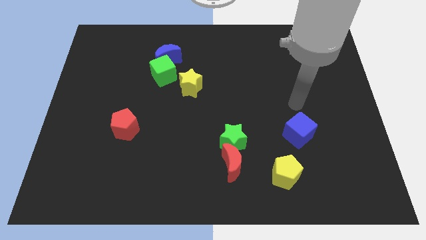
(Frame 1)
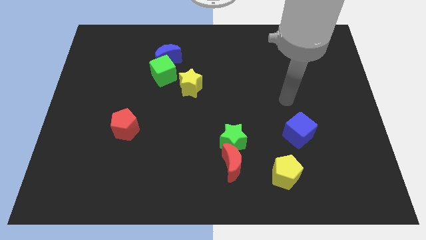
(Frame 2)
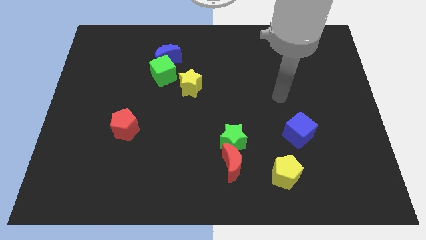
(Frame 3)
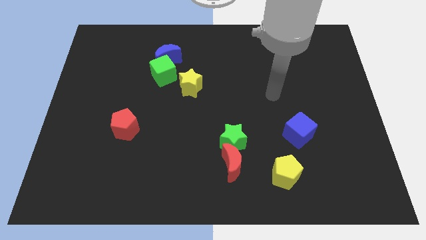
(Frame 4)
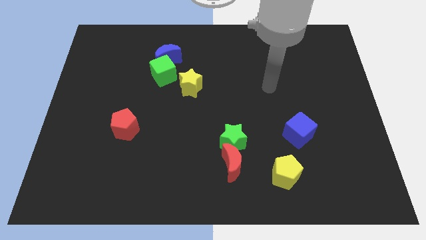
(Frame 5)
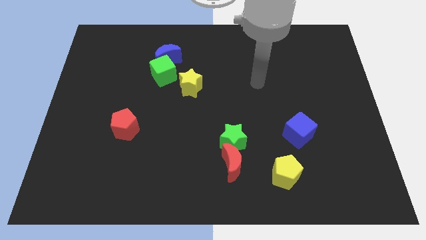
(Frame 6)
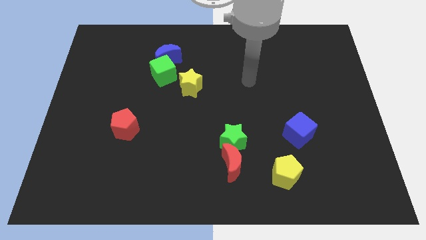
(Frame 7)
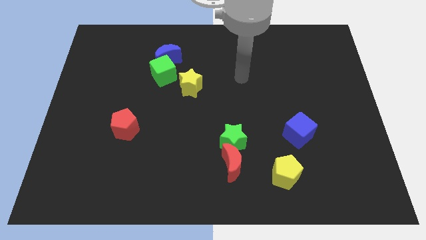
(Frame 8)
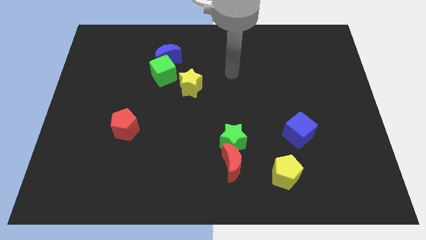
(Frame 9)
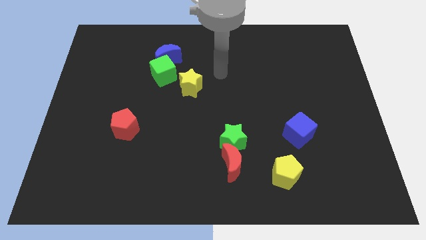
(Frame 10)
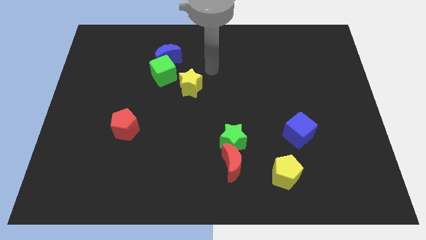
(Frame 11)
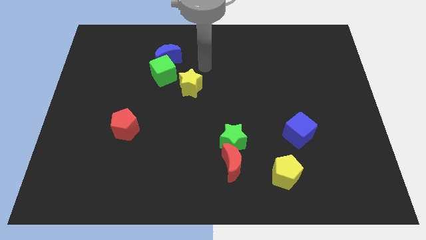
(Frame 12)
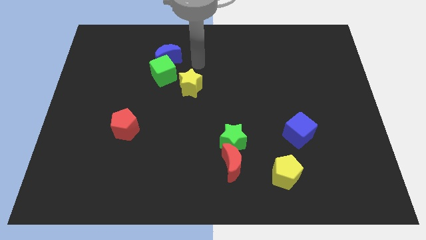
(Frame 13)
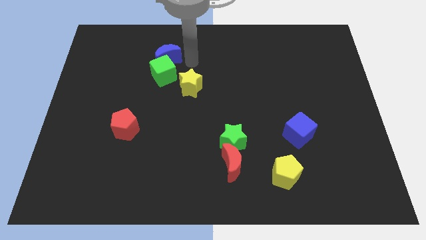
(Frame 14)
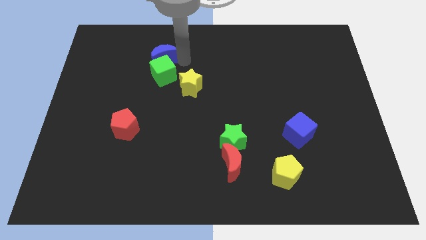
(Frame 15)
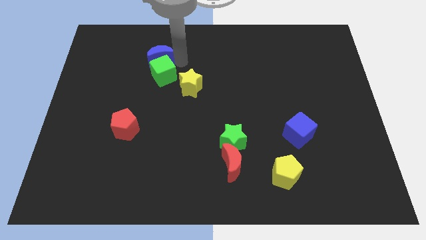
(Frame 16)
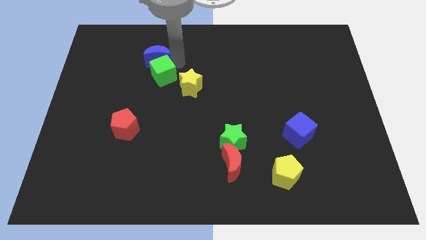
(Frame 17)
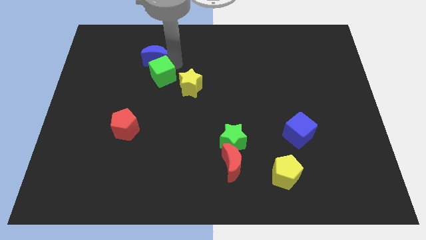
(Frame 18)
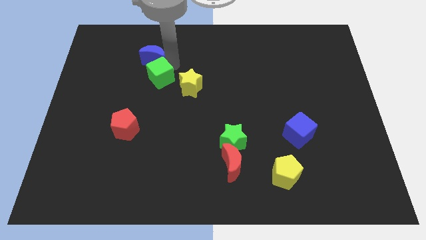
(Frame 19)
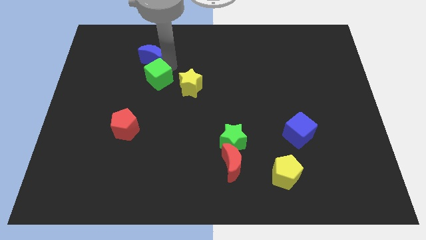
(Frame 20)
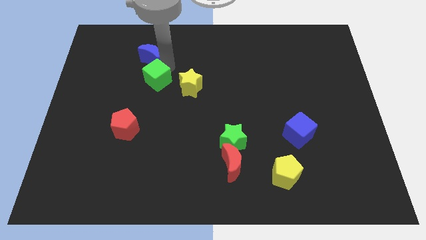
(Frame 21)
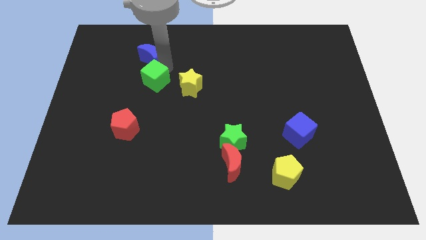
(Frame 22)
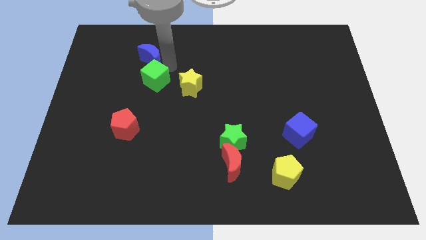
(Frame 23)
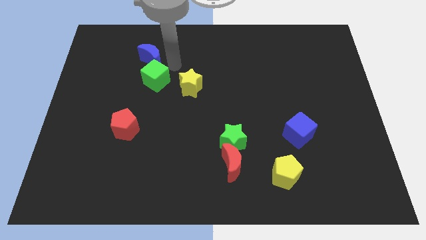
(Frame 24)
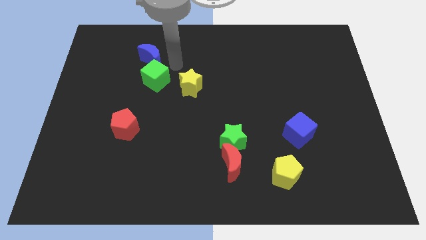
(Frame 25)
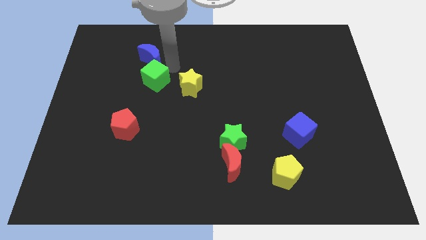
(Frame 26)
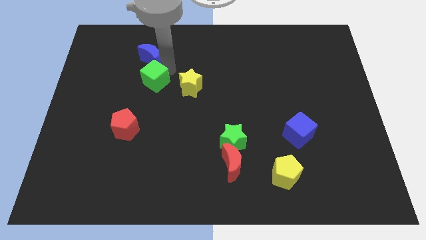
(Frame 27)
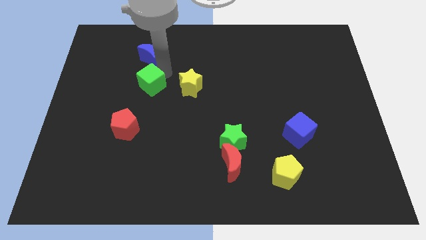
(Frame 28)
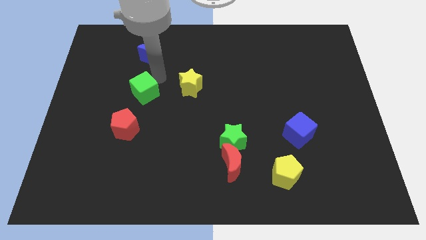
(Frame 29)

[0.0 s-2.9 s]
push the green cube slightly down and then to the left

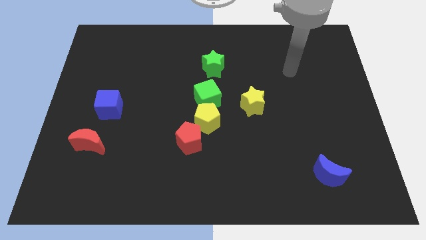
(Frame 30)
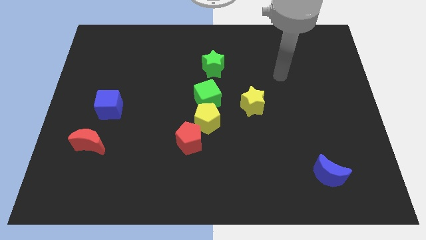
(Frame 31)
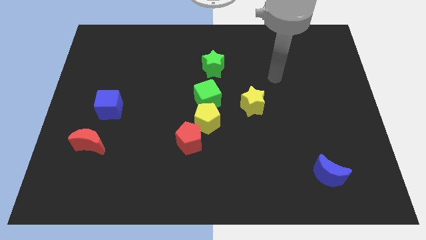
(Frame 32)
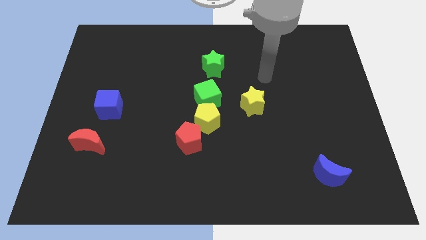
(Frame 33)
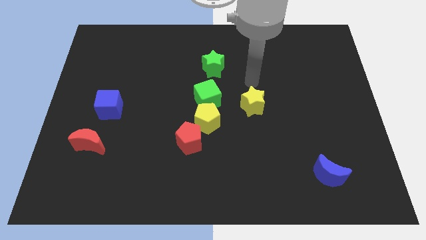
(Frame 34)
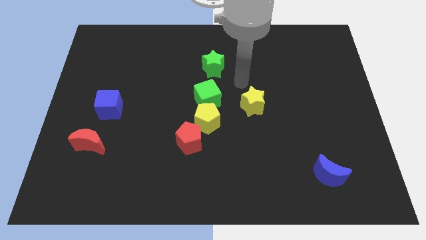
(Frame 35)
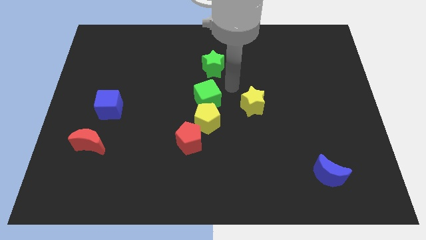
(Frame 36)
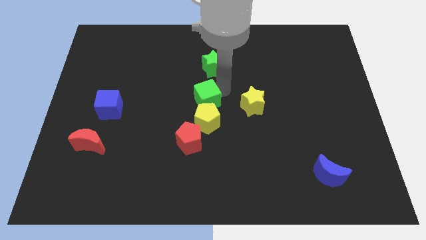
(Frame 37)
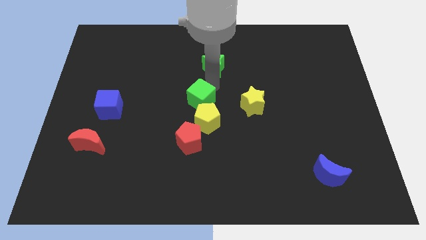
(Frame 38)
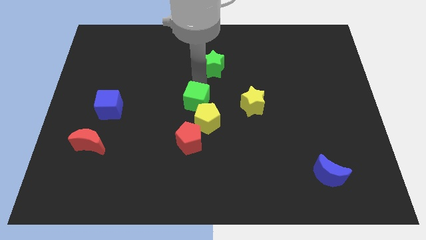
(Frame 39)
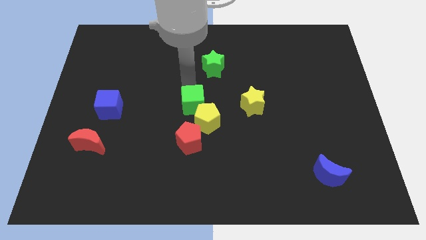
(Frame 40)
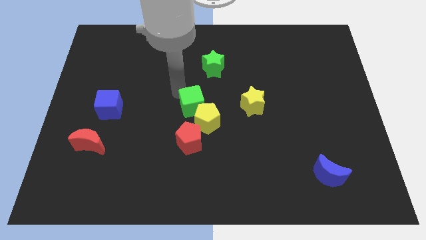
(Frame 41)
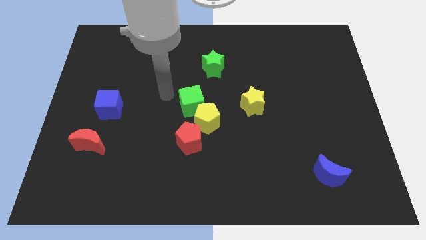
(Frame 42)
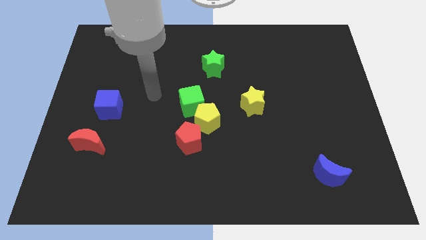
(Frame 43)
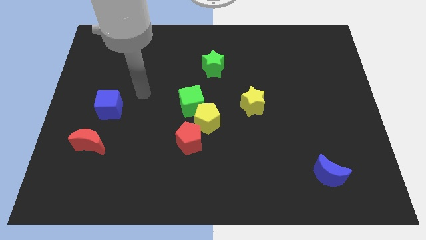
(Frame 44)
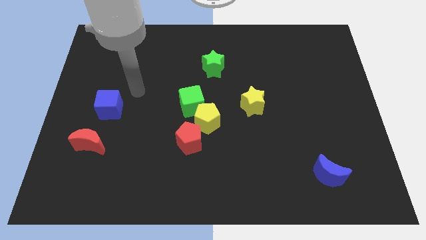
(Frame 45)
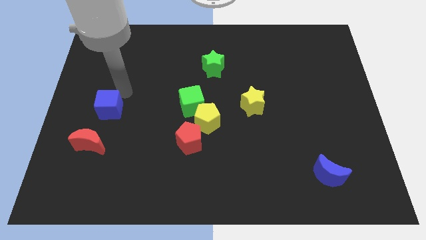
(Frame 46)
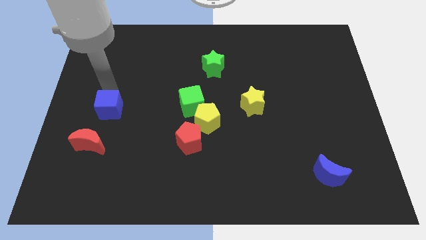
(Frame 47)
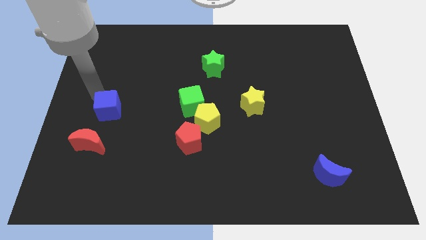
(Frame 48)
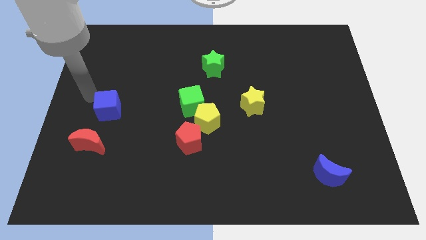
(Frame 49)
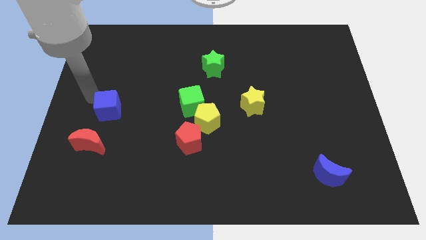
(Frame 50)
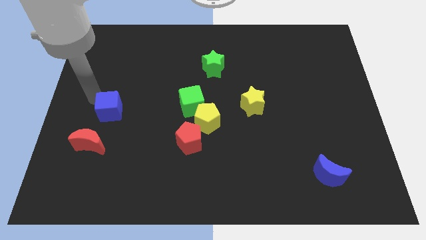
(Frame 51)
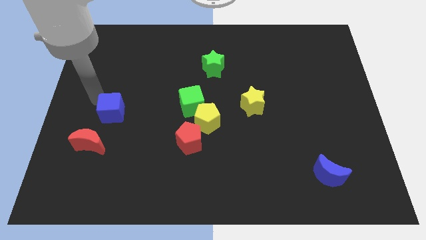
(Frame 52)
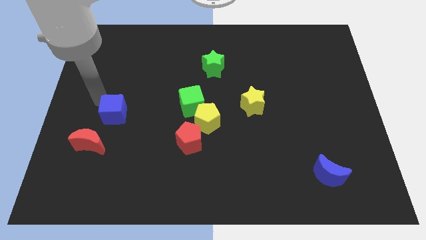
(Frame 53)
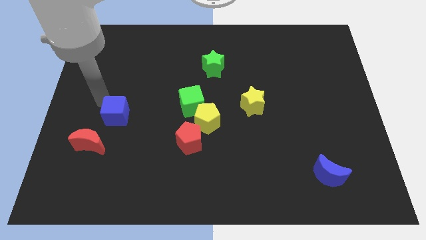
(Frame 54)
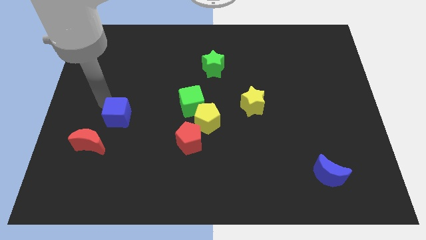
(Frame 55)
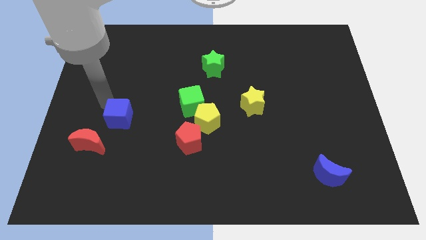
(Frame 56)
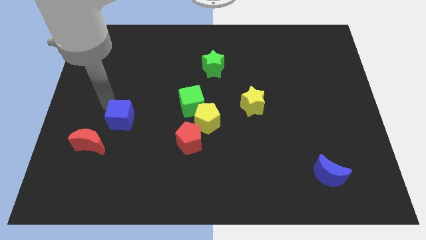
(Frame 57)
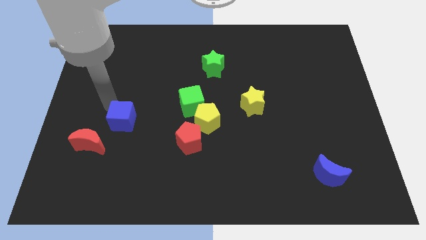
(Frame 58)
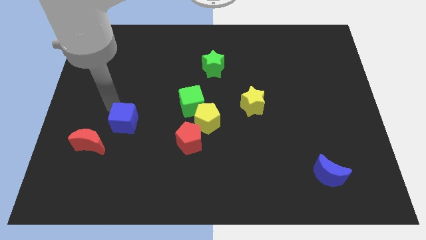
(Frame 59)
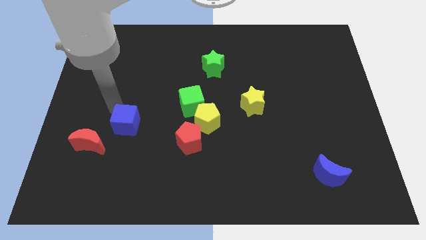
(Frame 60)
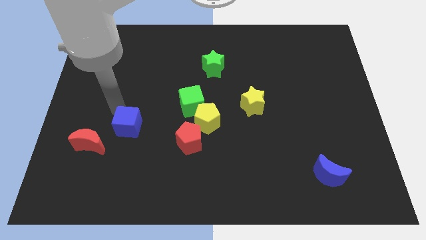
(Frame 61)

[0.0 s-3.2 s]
slightly move the blue cube downwards and then right

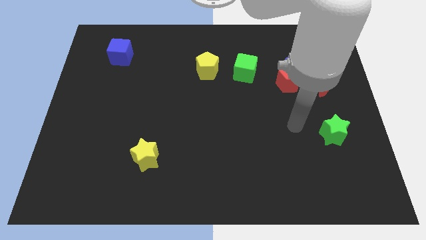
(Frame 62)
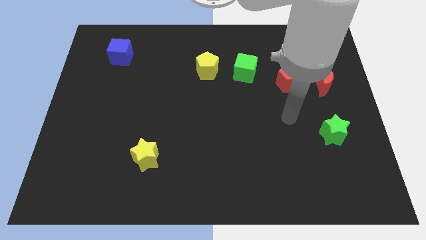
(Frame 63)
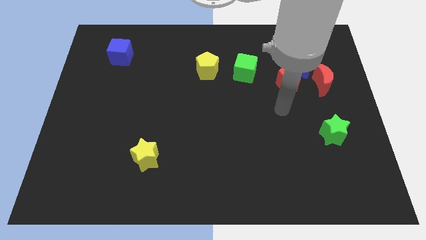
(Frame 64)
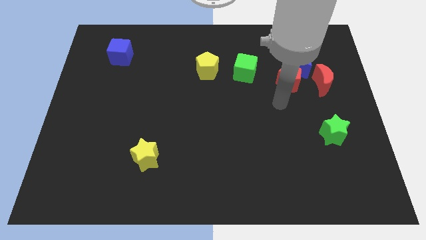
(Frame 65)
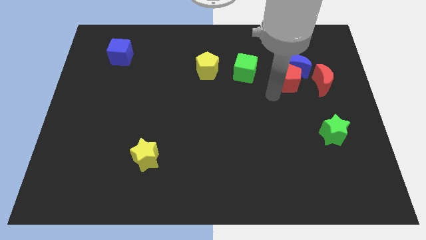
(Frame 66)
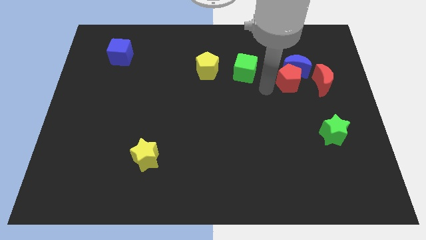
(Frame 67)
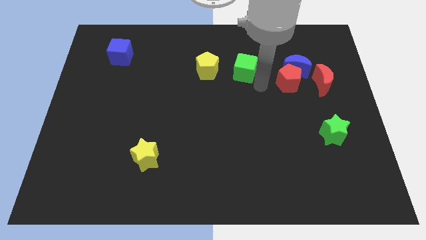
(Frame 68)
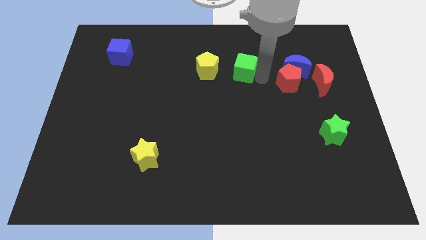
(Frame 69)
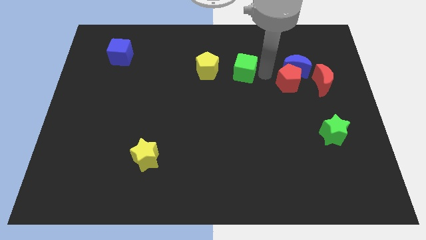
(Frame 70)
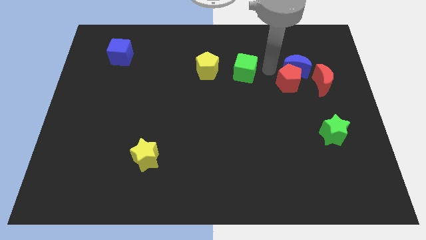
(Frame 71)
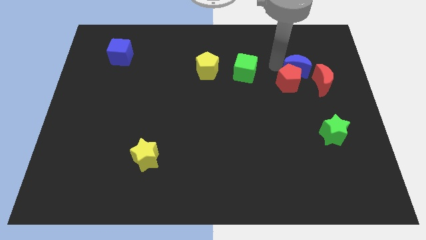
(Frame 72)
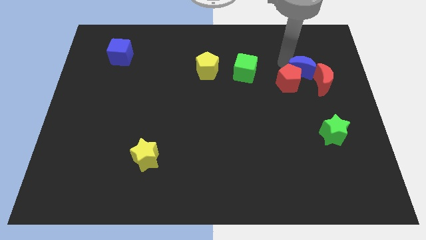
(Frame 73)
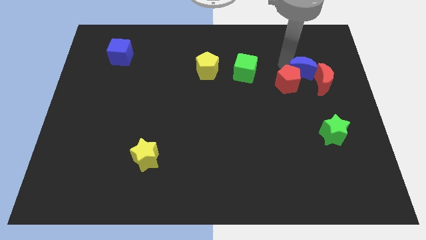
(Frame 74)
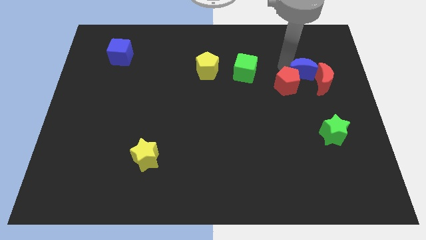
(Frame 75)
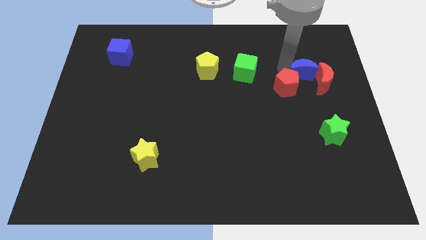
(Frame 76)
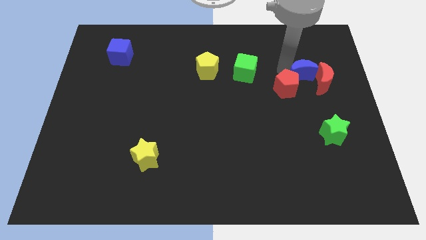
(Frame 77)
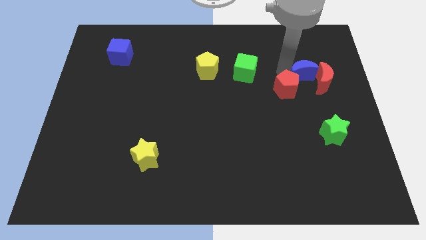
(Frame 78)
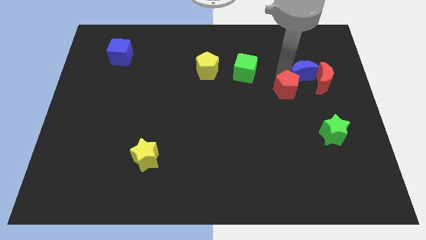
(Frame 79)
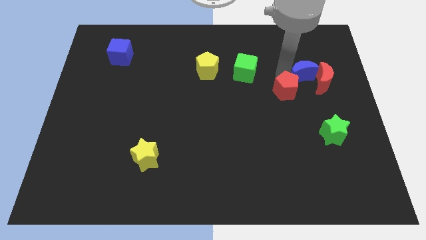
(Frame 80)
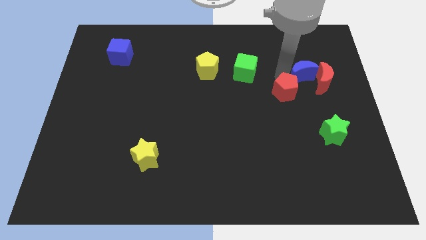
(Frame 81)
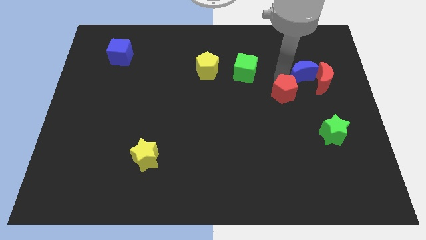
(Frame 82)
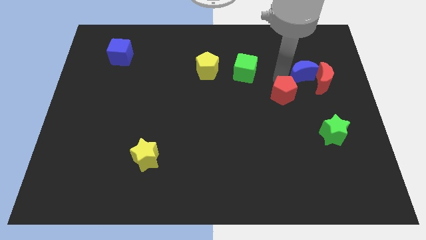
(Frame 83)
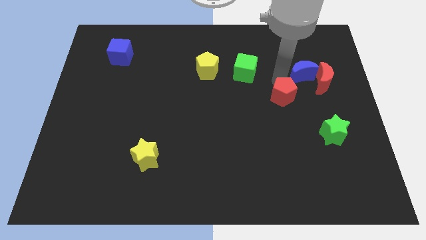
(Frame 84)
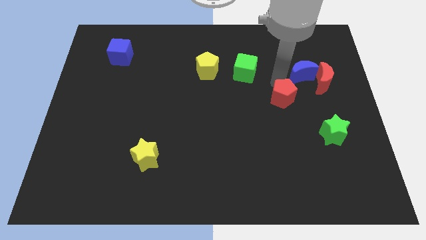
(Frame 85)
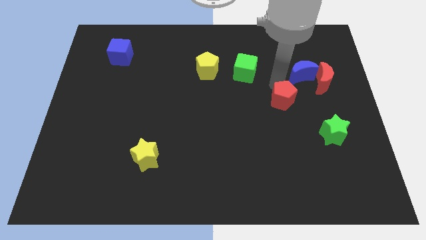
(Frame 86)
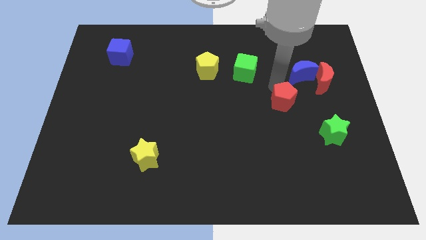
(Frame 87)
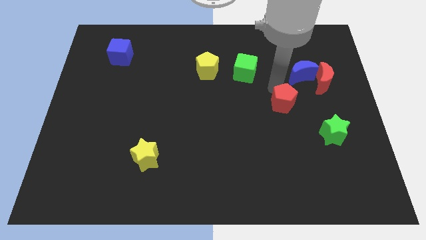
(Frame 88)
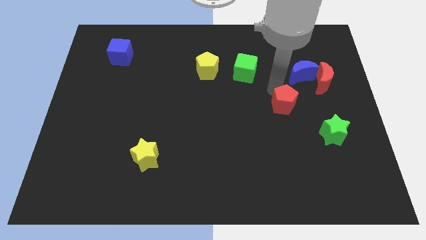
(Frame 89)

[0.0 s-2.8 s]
slightly slide the red pentagon downwards
